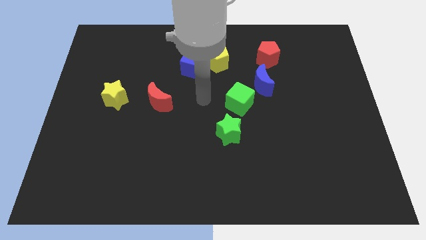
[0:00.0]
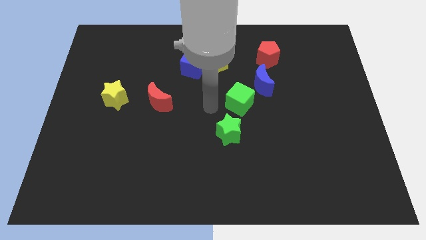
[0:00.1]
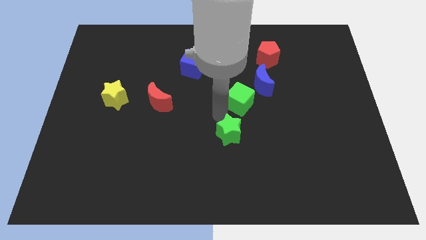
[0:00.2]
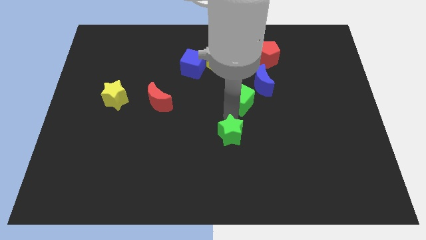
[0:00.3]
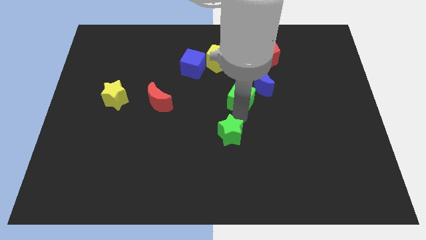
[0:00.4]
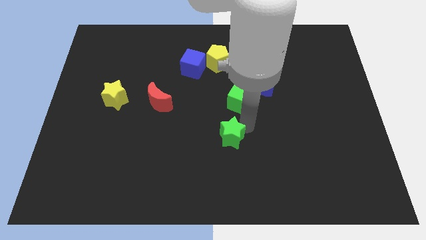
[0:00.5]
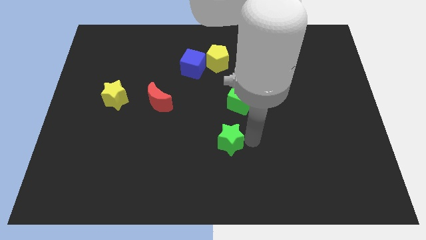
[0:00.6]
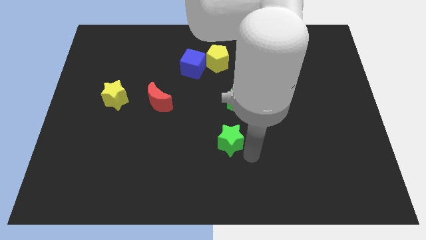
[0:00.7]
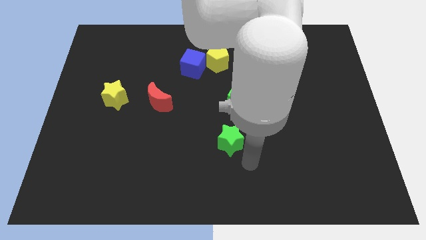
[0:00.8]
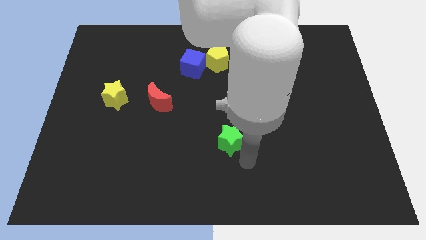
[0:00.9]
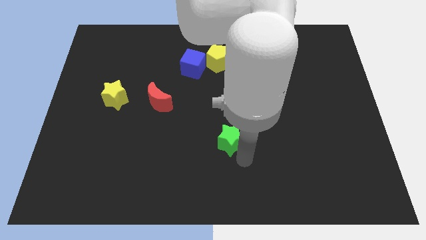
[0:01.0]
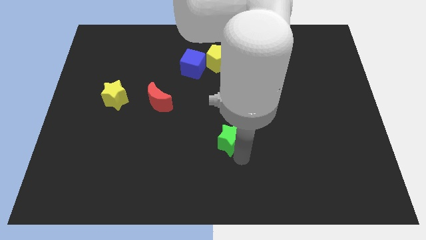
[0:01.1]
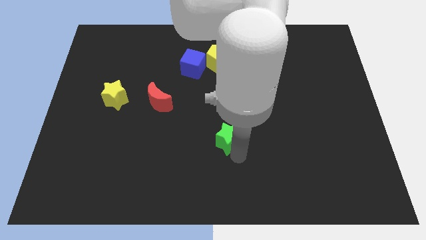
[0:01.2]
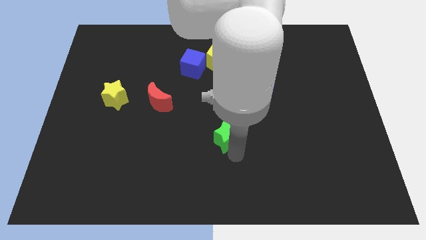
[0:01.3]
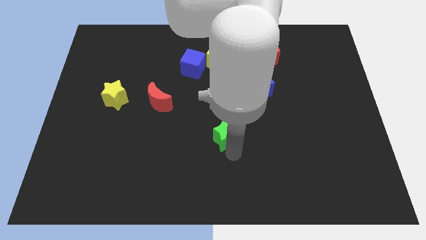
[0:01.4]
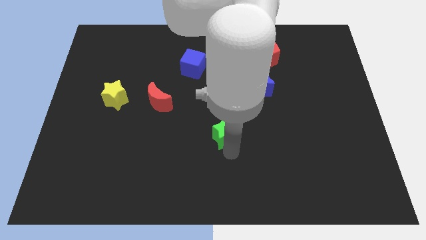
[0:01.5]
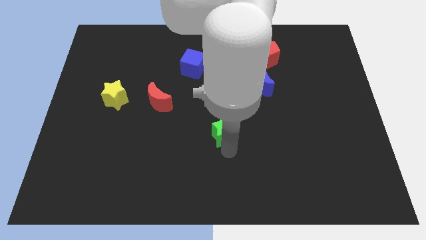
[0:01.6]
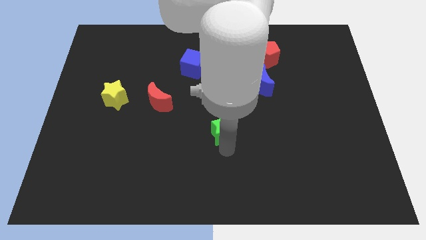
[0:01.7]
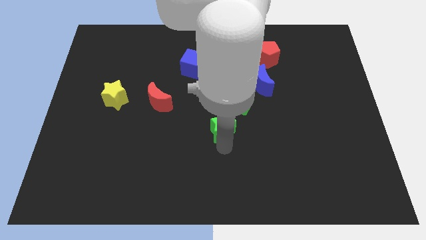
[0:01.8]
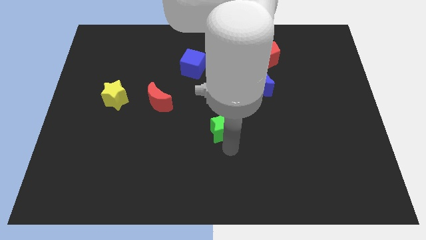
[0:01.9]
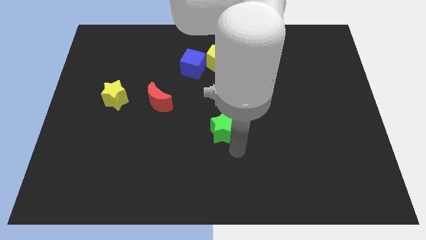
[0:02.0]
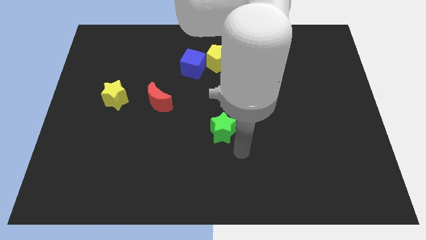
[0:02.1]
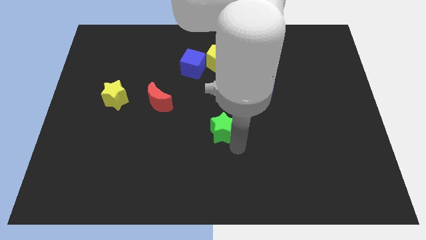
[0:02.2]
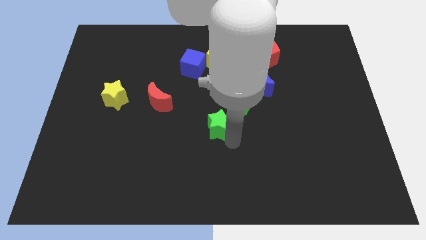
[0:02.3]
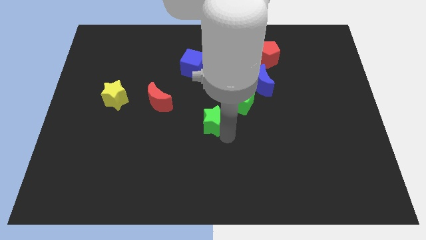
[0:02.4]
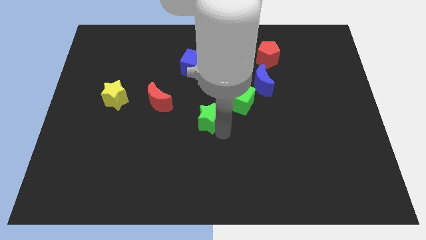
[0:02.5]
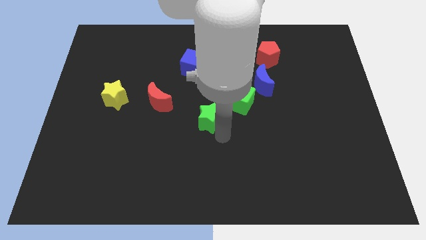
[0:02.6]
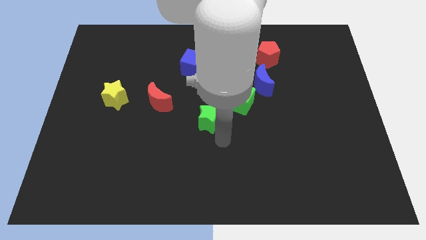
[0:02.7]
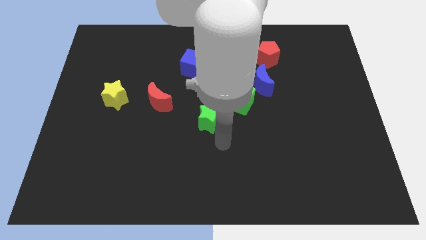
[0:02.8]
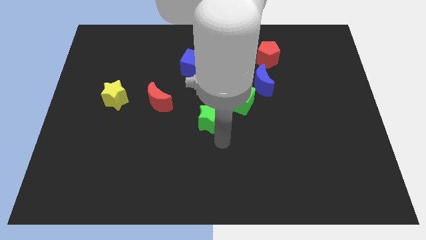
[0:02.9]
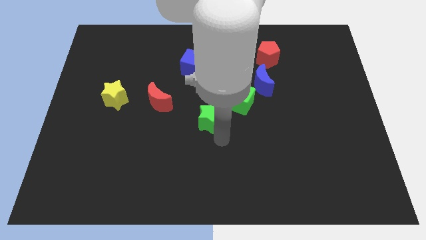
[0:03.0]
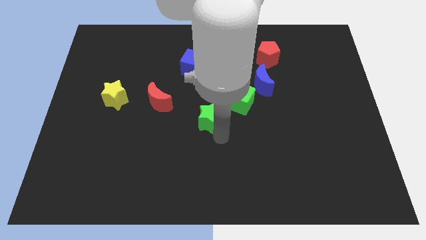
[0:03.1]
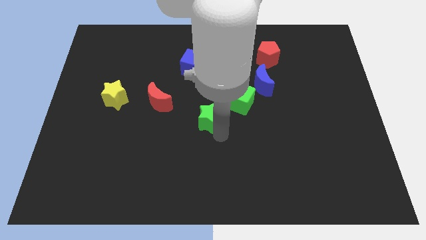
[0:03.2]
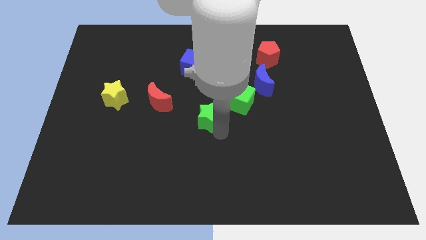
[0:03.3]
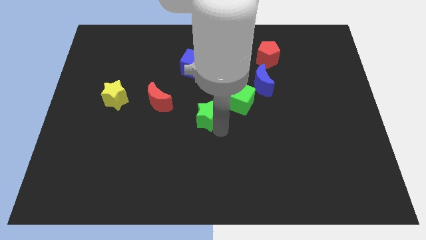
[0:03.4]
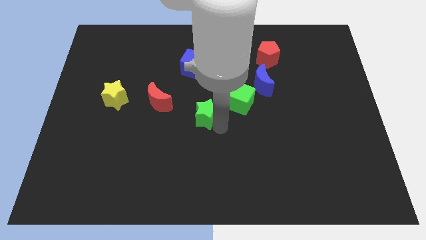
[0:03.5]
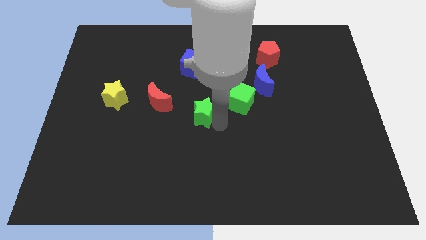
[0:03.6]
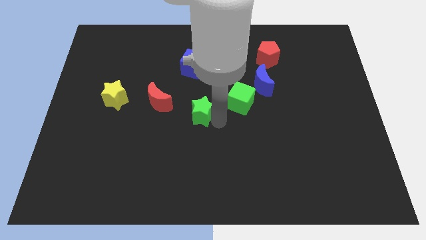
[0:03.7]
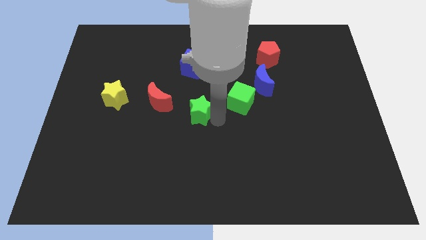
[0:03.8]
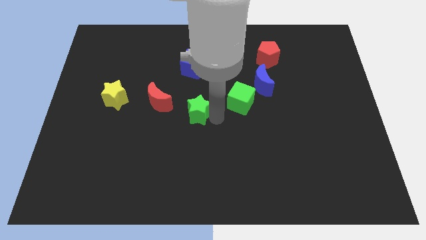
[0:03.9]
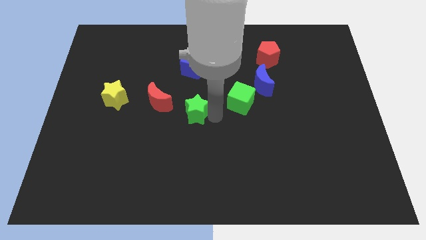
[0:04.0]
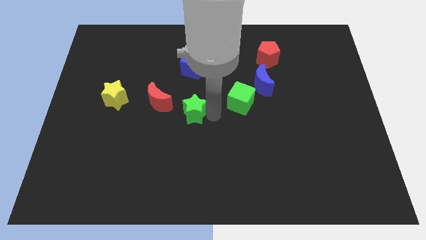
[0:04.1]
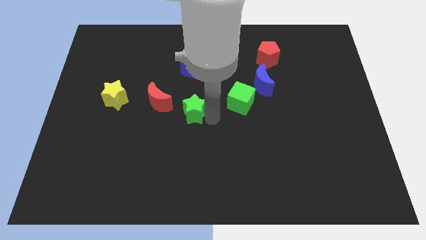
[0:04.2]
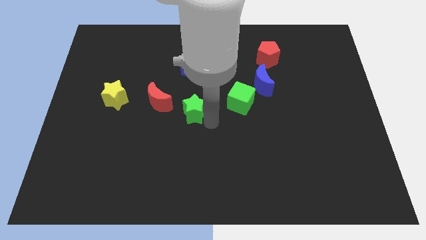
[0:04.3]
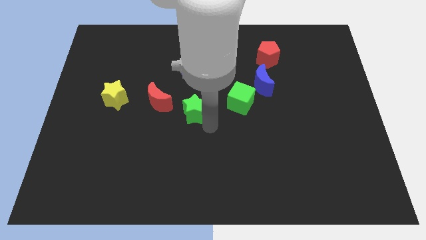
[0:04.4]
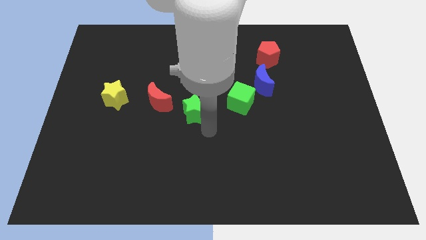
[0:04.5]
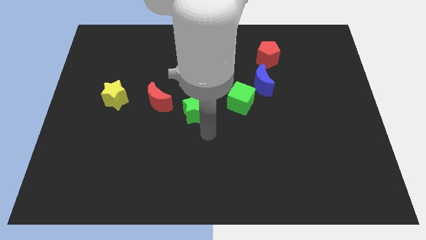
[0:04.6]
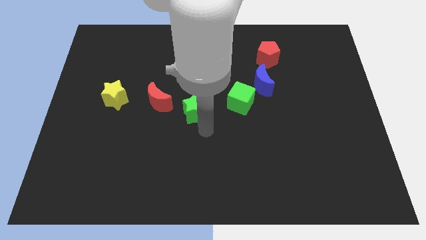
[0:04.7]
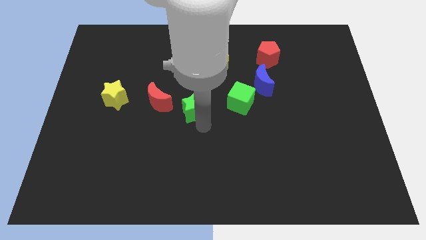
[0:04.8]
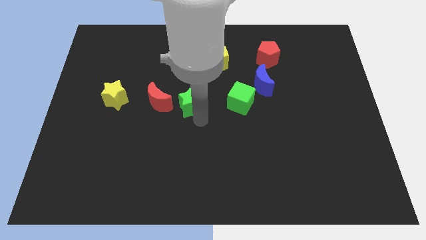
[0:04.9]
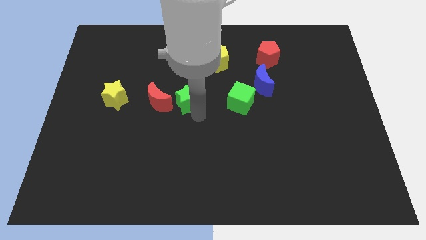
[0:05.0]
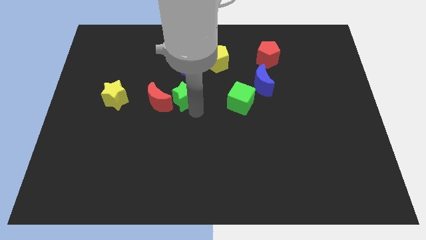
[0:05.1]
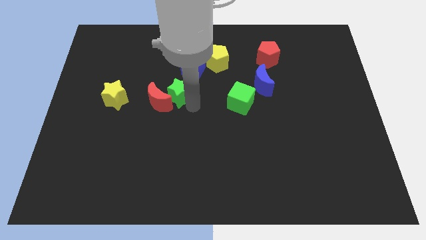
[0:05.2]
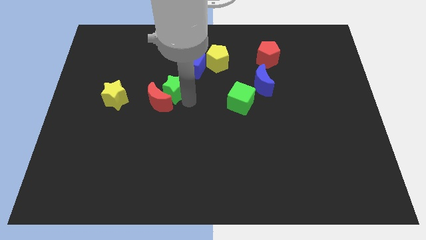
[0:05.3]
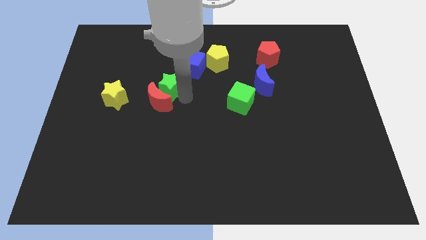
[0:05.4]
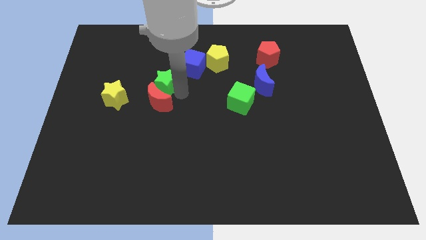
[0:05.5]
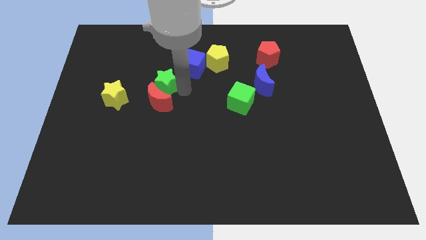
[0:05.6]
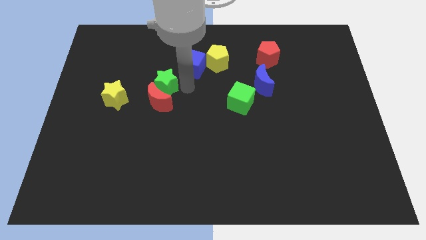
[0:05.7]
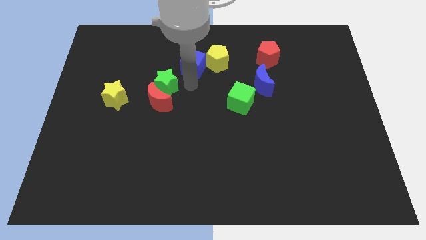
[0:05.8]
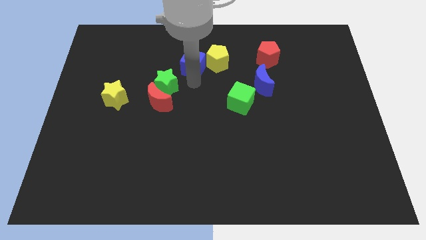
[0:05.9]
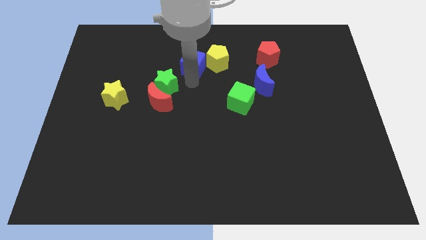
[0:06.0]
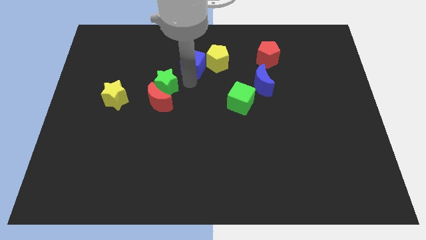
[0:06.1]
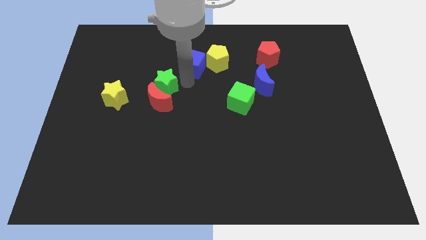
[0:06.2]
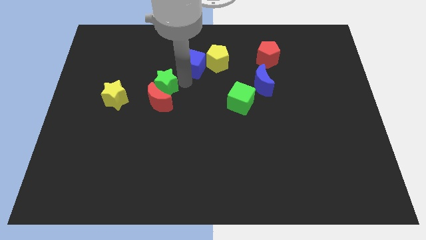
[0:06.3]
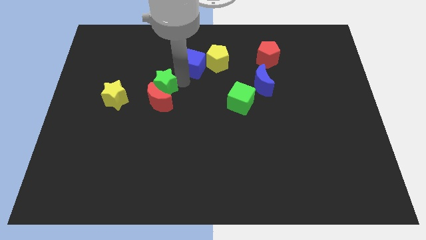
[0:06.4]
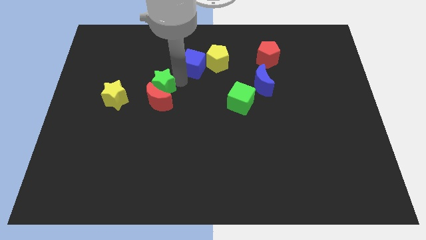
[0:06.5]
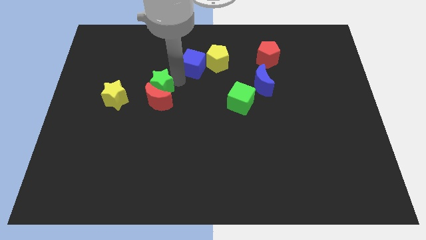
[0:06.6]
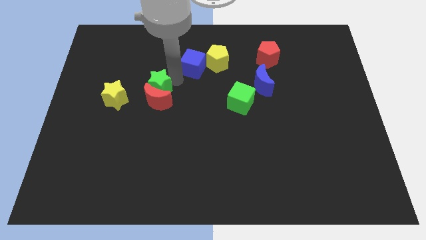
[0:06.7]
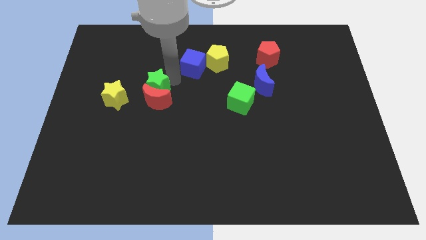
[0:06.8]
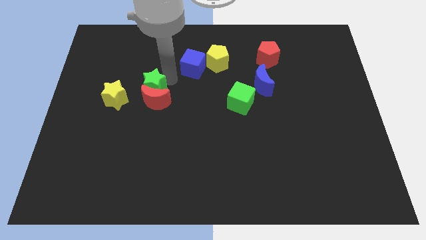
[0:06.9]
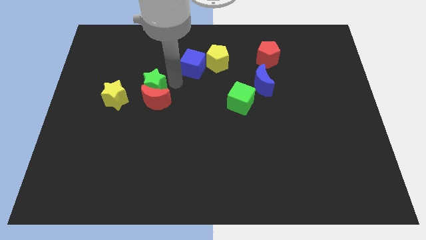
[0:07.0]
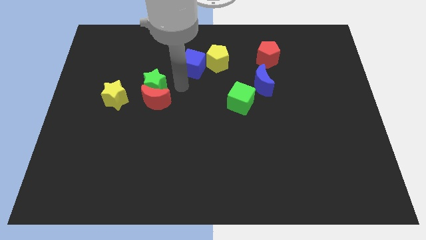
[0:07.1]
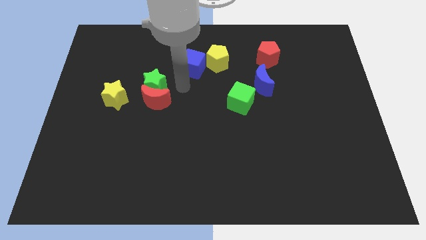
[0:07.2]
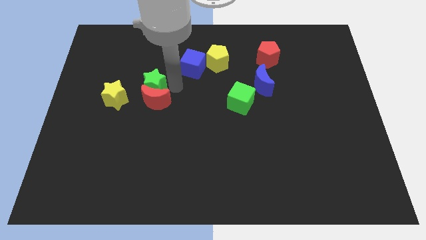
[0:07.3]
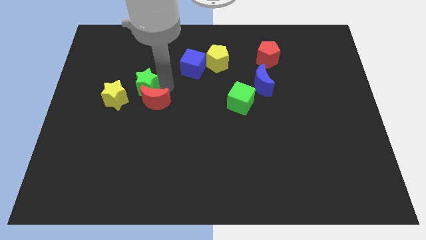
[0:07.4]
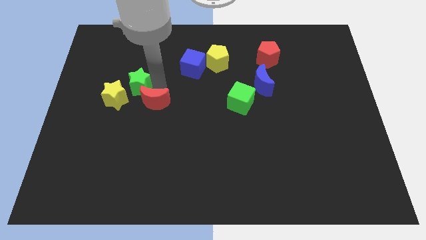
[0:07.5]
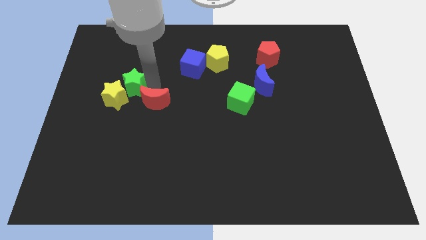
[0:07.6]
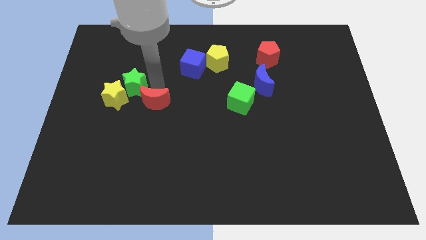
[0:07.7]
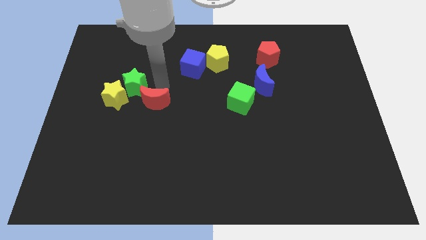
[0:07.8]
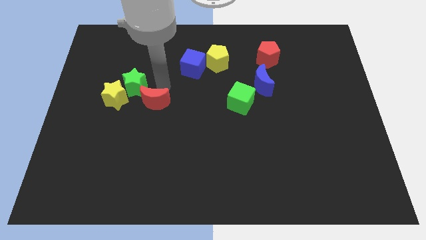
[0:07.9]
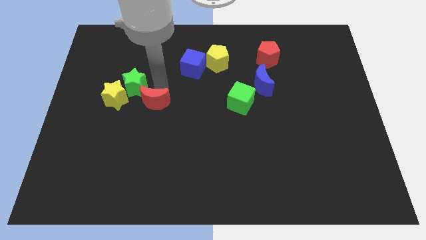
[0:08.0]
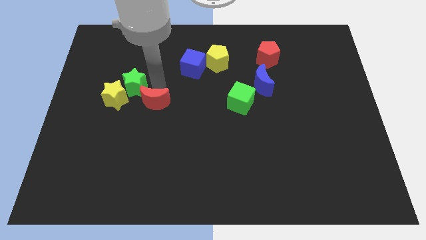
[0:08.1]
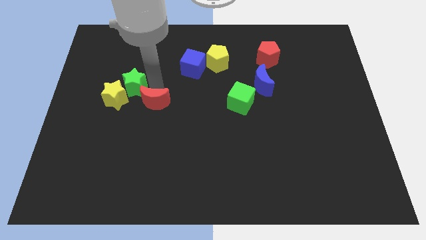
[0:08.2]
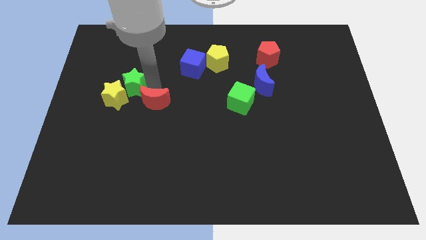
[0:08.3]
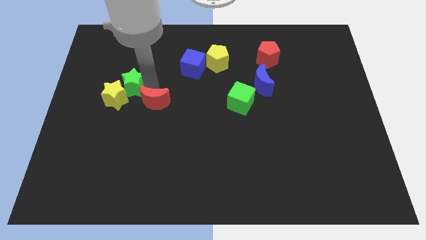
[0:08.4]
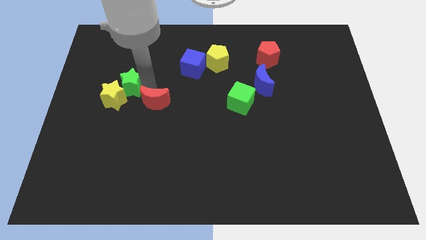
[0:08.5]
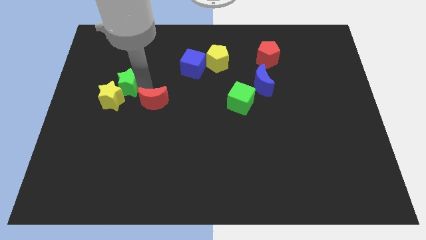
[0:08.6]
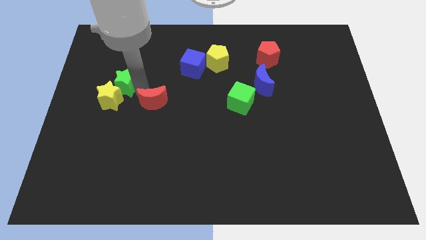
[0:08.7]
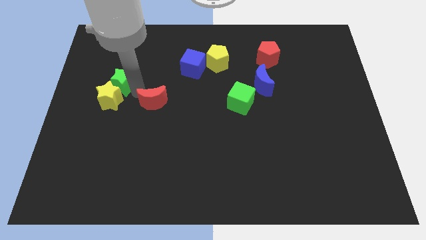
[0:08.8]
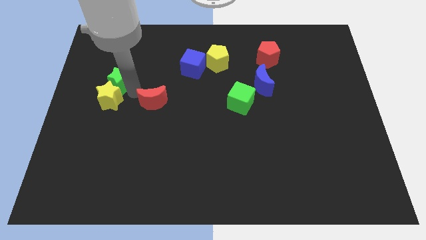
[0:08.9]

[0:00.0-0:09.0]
put the green star diagonally up and to the left of the yellow star
